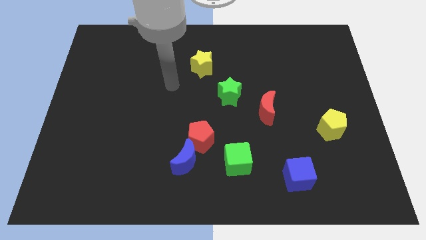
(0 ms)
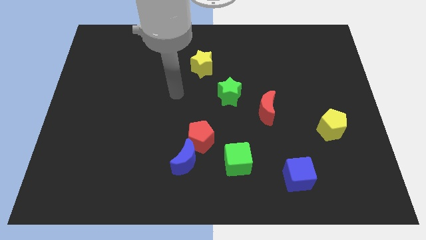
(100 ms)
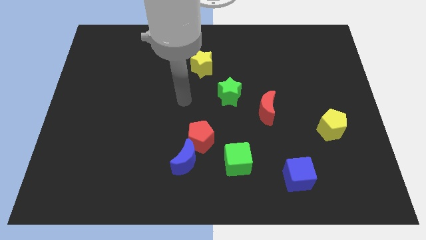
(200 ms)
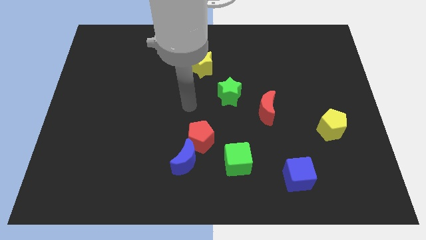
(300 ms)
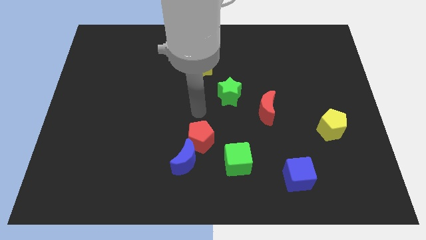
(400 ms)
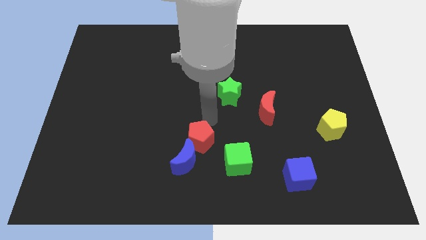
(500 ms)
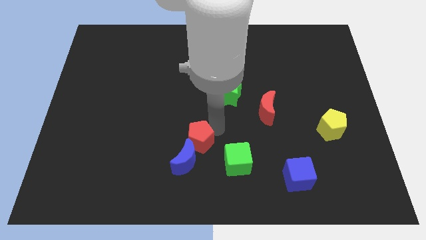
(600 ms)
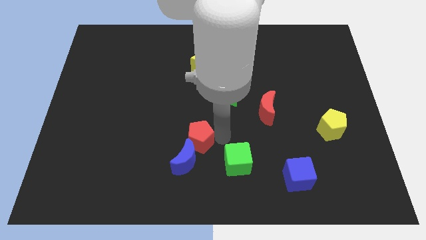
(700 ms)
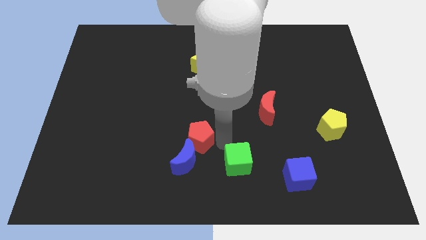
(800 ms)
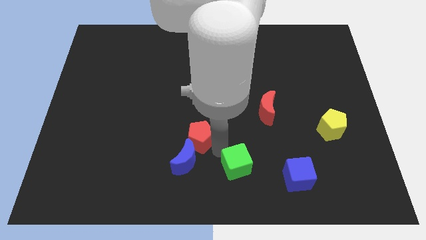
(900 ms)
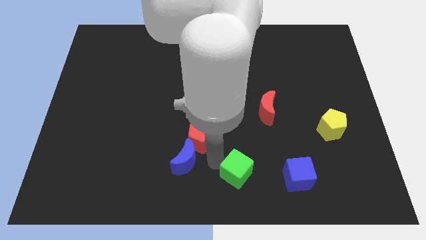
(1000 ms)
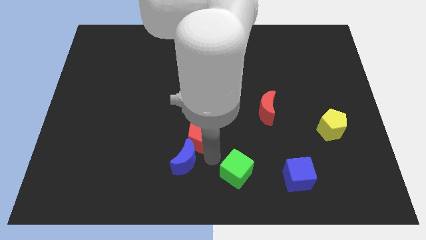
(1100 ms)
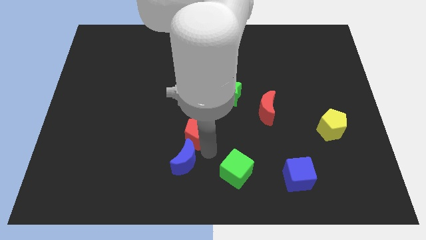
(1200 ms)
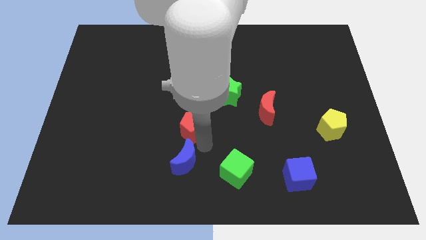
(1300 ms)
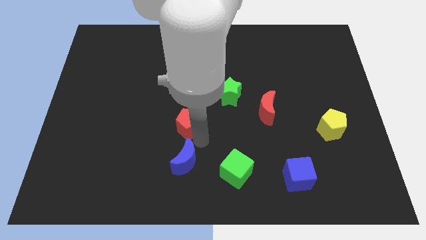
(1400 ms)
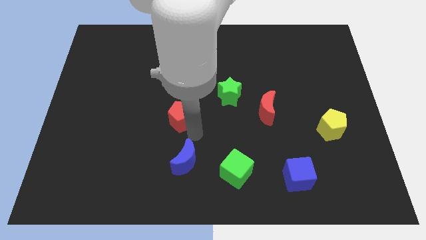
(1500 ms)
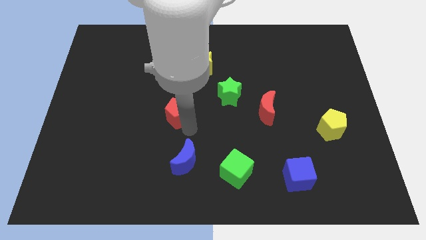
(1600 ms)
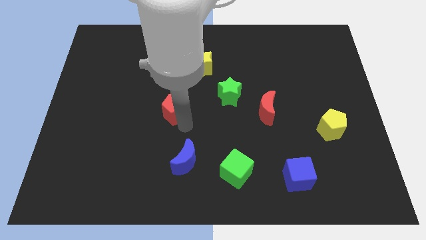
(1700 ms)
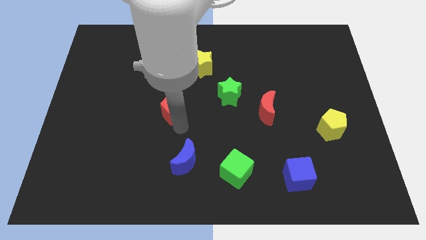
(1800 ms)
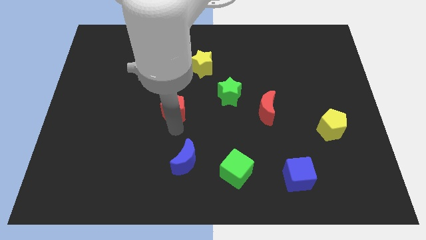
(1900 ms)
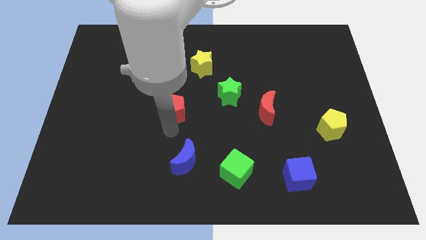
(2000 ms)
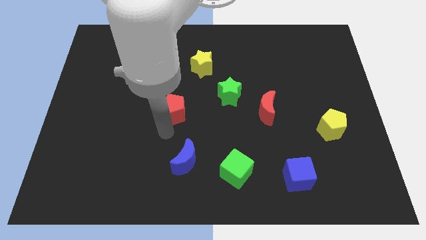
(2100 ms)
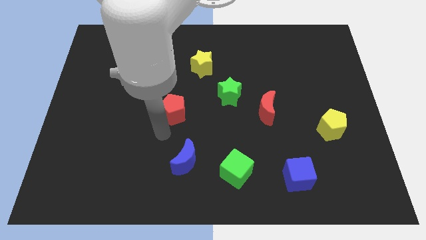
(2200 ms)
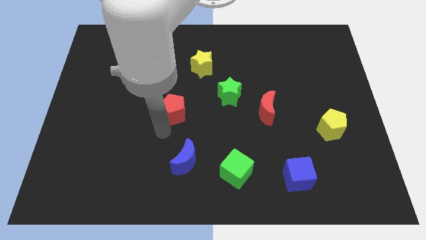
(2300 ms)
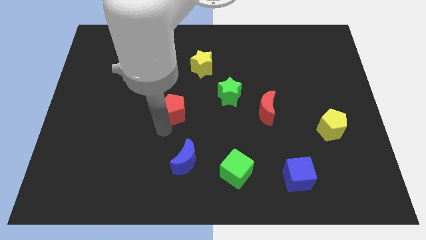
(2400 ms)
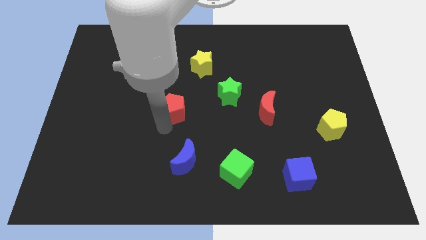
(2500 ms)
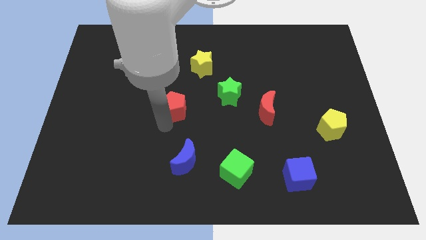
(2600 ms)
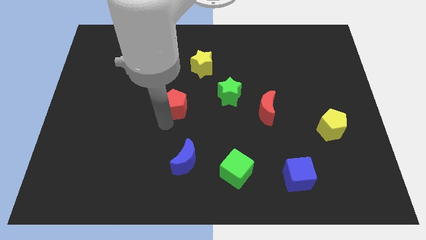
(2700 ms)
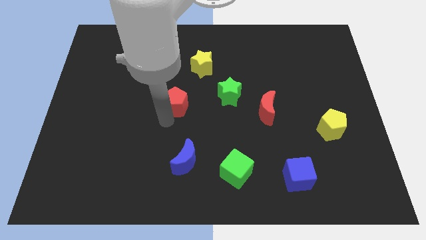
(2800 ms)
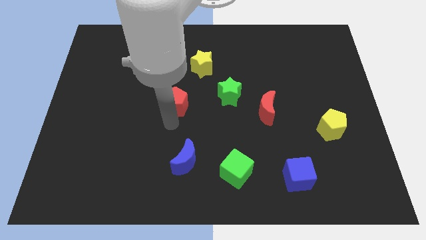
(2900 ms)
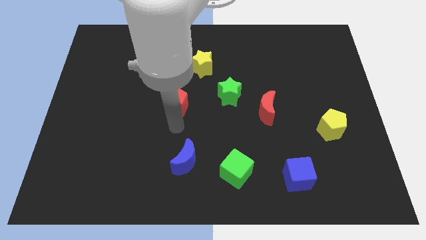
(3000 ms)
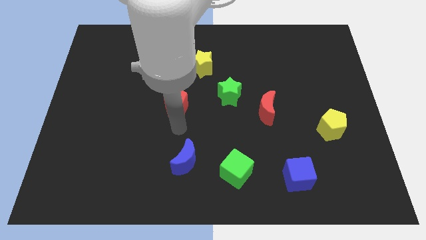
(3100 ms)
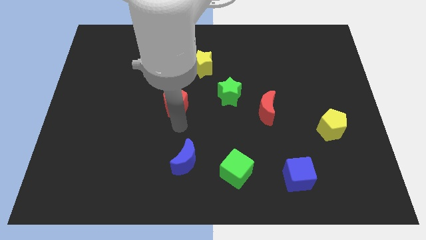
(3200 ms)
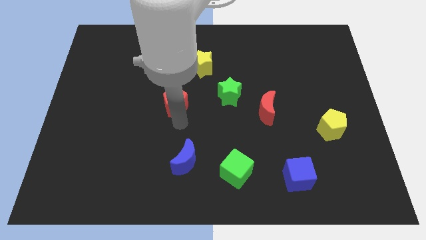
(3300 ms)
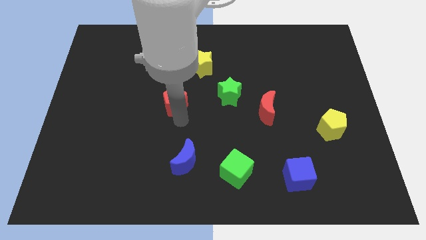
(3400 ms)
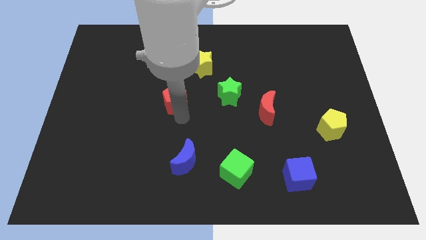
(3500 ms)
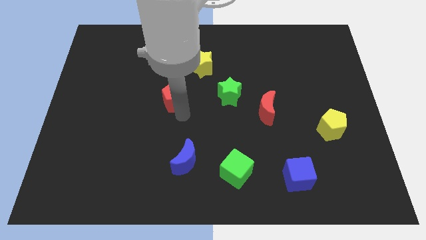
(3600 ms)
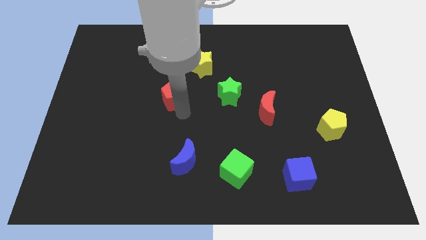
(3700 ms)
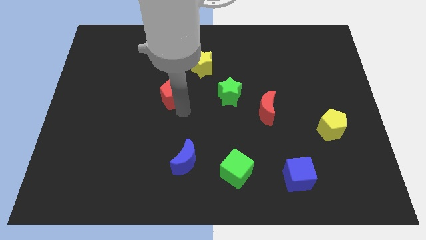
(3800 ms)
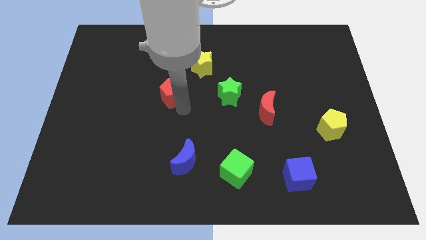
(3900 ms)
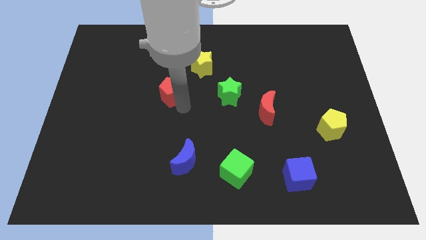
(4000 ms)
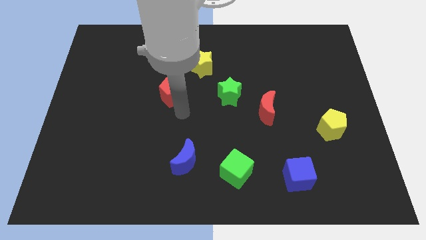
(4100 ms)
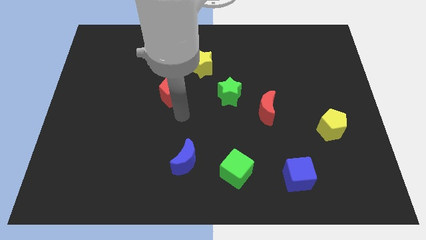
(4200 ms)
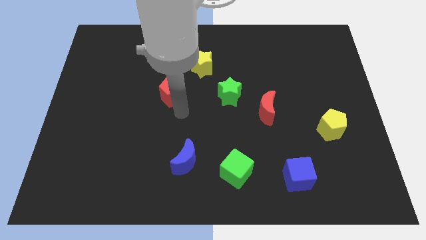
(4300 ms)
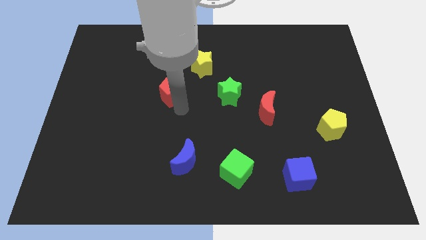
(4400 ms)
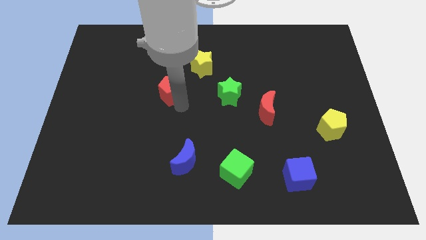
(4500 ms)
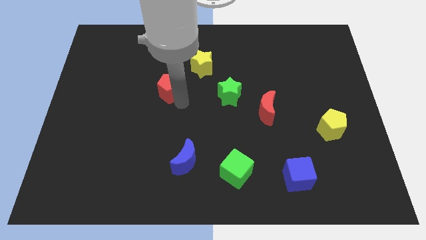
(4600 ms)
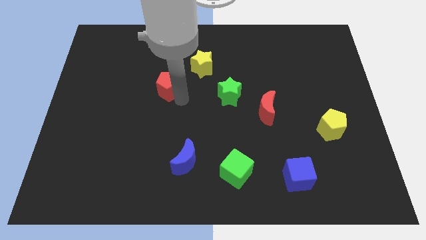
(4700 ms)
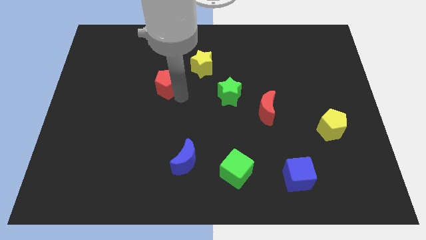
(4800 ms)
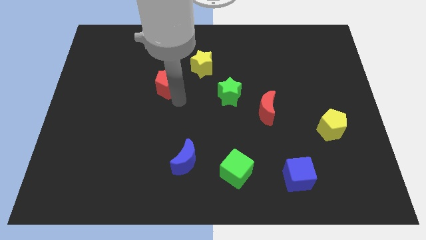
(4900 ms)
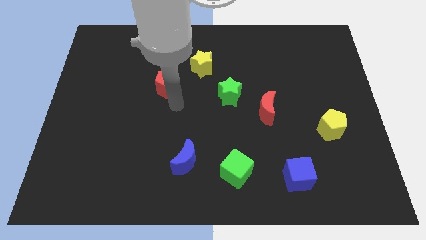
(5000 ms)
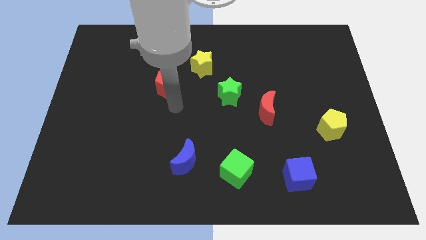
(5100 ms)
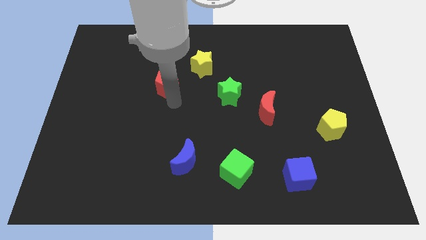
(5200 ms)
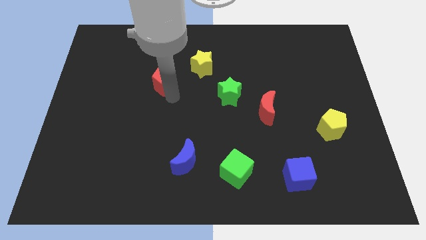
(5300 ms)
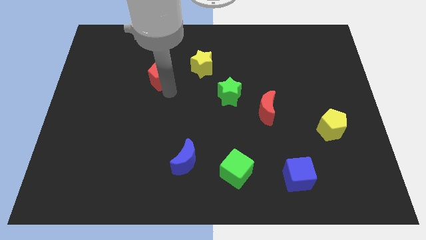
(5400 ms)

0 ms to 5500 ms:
move the red pentagon left of the yellow star

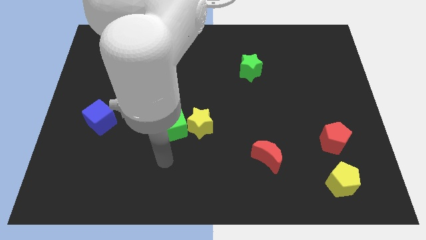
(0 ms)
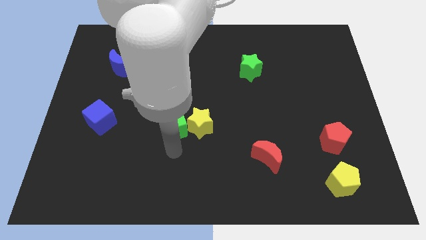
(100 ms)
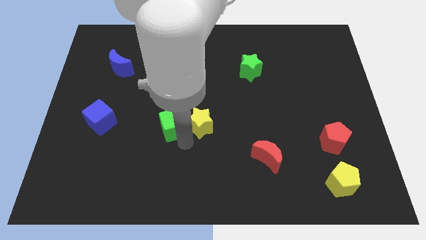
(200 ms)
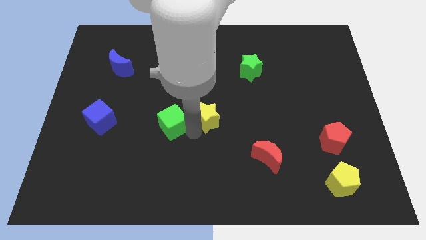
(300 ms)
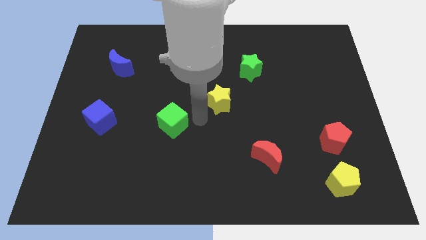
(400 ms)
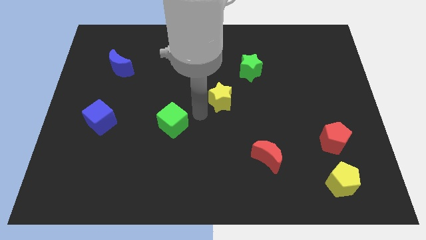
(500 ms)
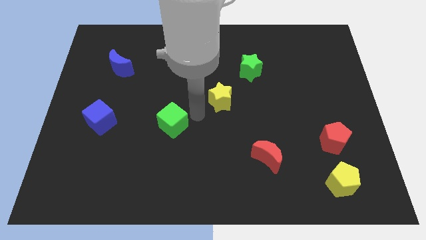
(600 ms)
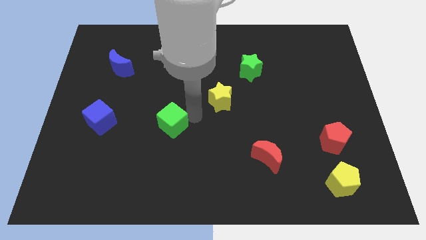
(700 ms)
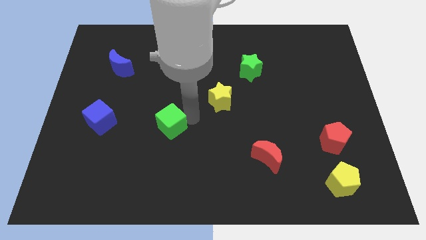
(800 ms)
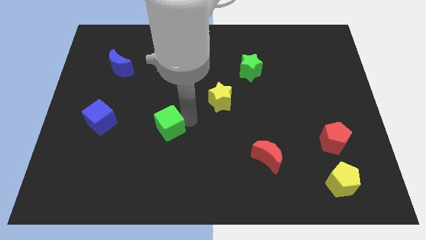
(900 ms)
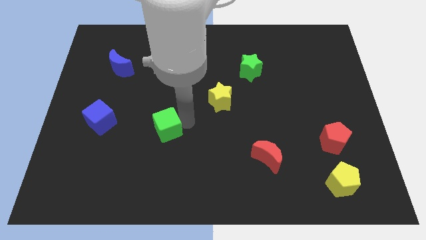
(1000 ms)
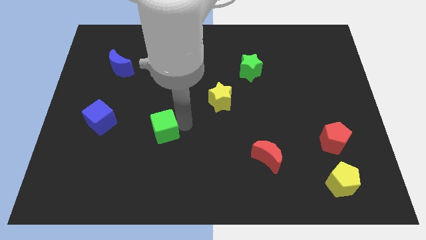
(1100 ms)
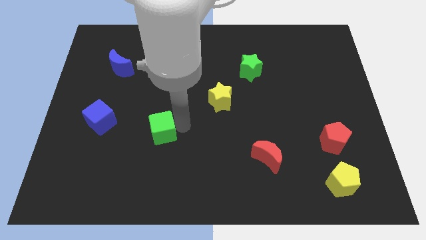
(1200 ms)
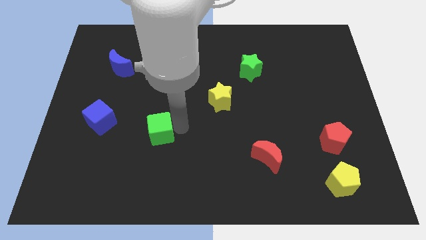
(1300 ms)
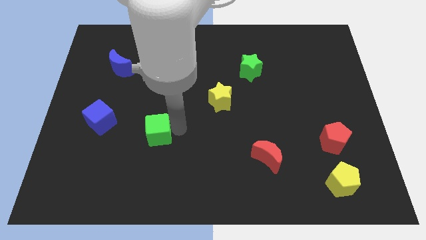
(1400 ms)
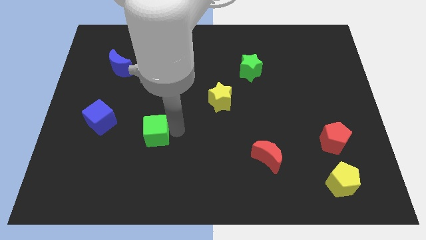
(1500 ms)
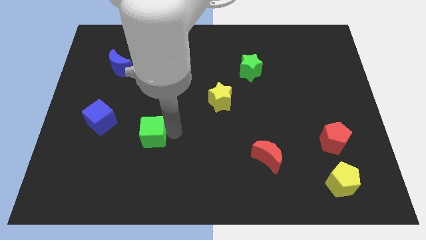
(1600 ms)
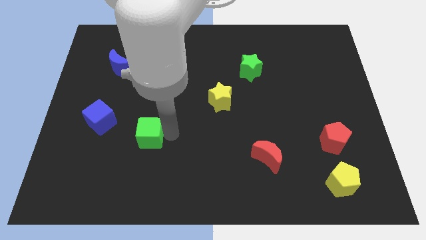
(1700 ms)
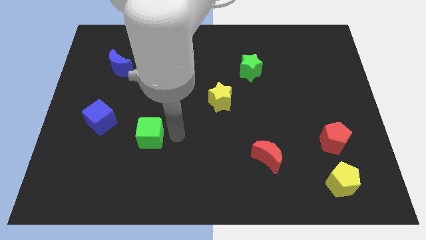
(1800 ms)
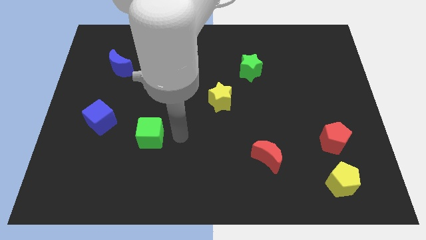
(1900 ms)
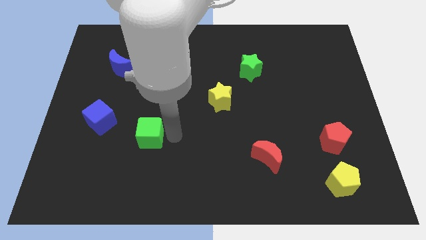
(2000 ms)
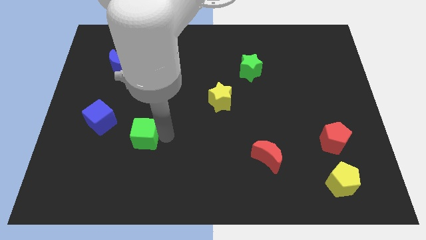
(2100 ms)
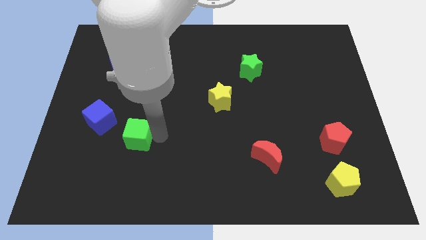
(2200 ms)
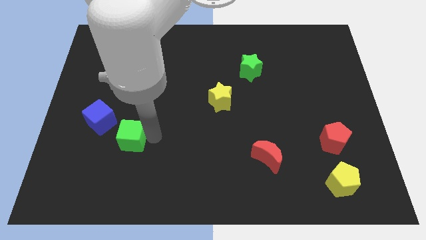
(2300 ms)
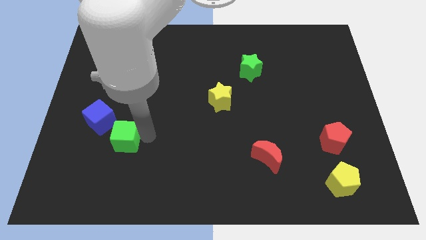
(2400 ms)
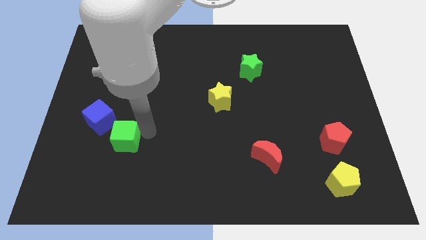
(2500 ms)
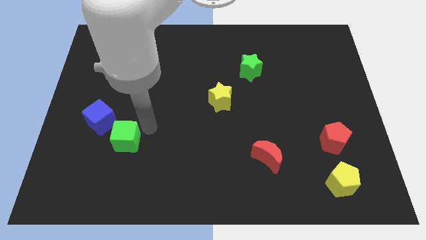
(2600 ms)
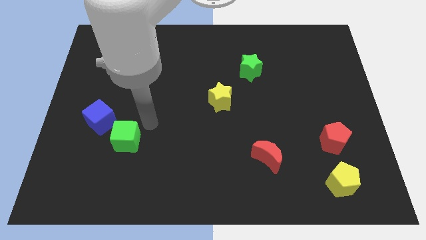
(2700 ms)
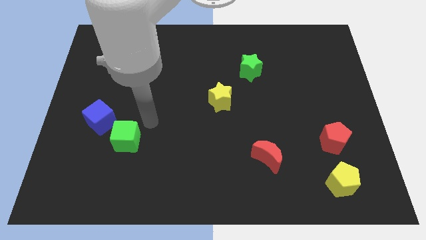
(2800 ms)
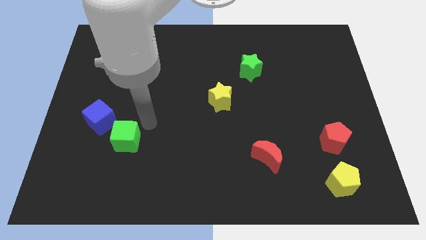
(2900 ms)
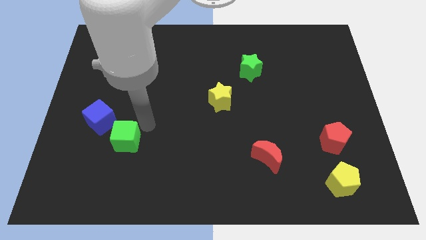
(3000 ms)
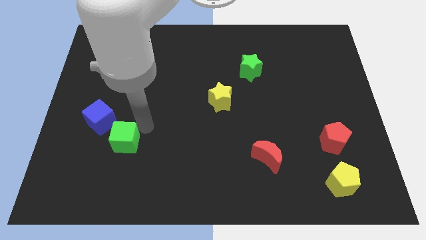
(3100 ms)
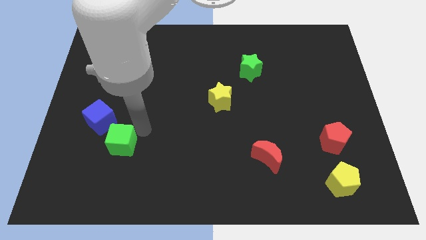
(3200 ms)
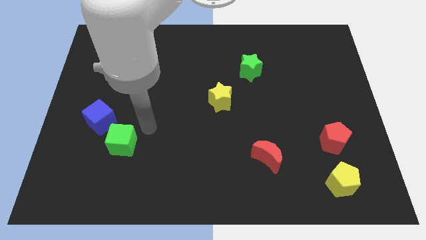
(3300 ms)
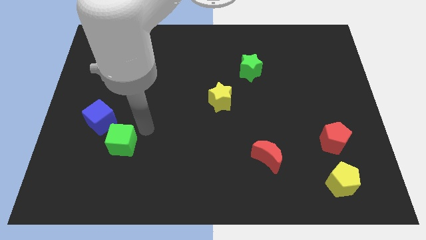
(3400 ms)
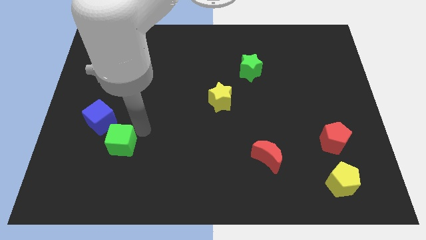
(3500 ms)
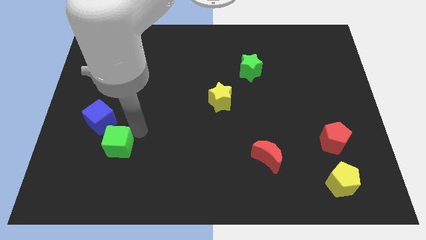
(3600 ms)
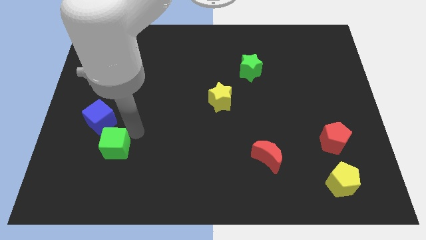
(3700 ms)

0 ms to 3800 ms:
put the green cube to the bottom side of the blue cube
